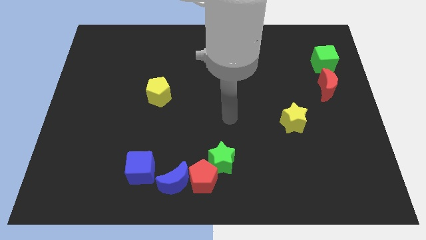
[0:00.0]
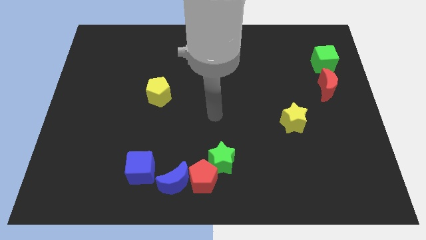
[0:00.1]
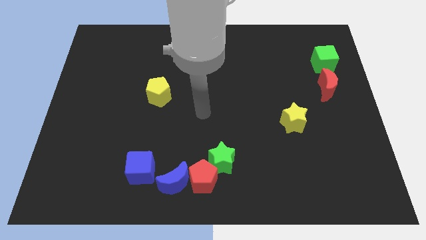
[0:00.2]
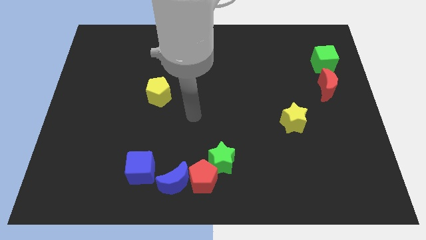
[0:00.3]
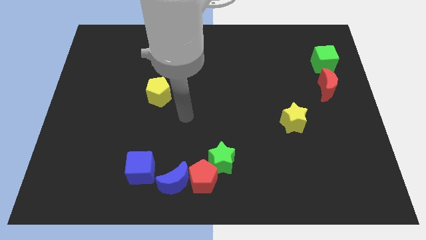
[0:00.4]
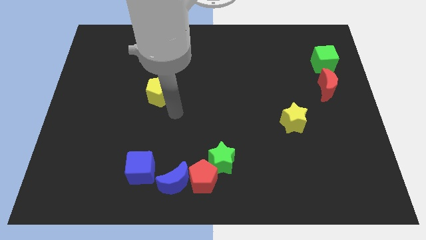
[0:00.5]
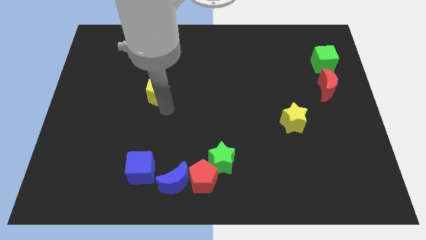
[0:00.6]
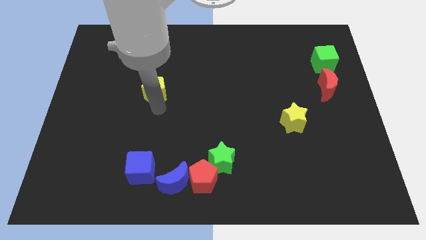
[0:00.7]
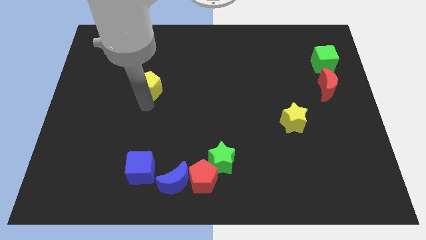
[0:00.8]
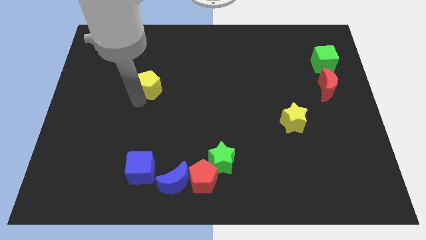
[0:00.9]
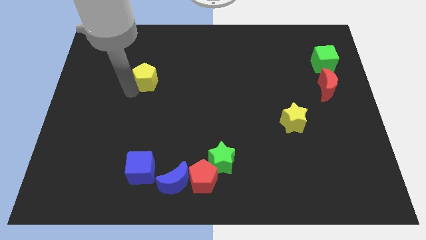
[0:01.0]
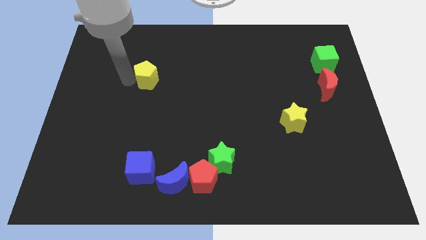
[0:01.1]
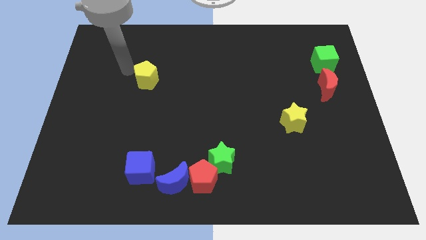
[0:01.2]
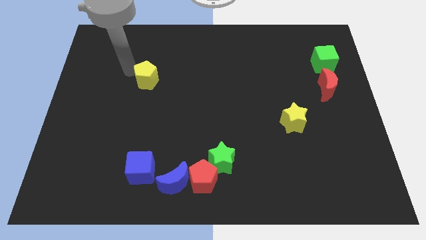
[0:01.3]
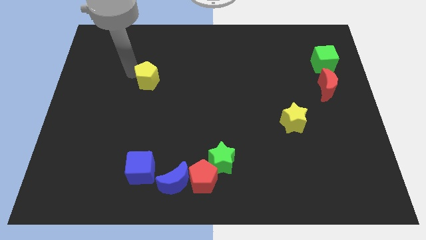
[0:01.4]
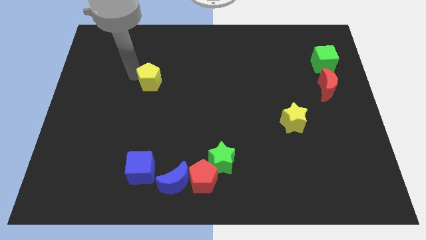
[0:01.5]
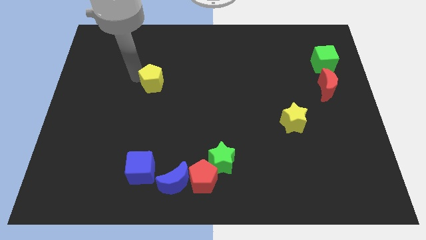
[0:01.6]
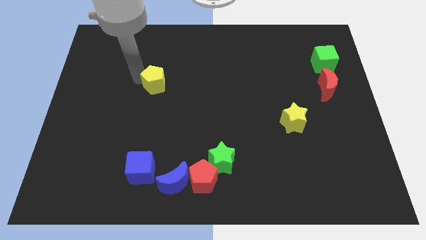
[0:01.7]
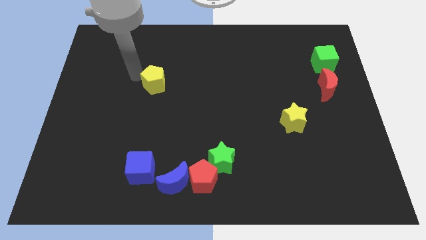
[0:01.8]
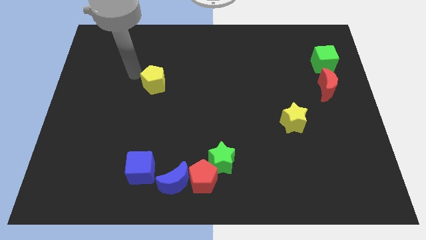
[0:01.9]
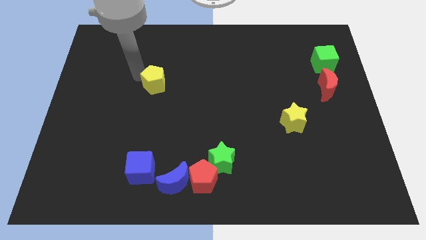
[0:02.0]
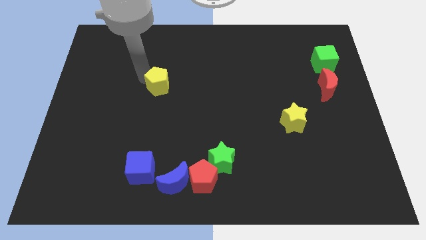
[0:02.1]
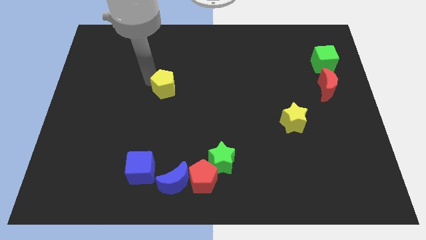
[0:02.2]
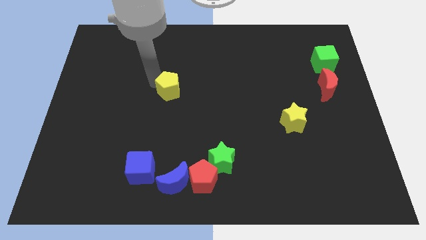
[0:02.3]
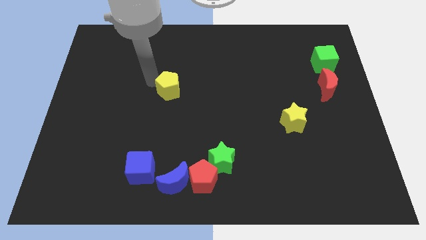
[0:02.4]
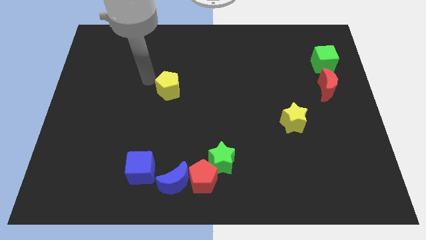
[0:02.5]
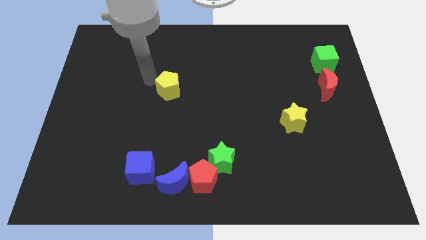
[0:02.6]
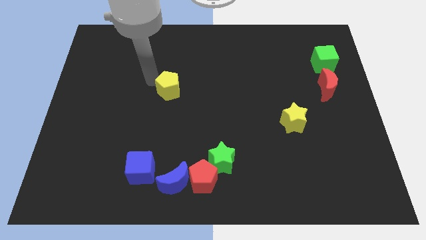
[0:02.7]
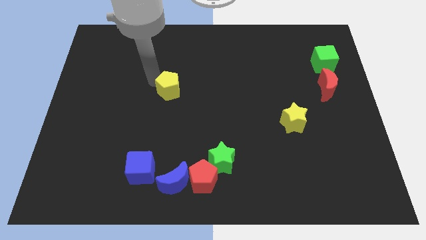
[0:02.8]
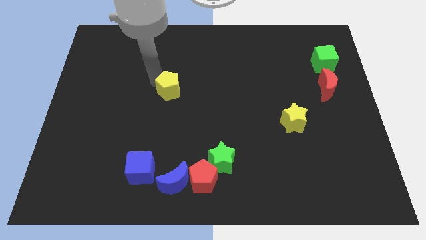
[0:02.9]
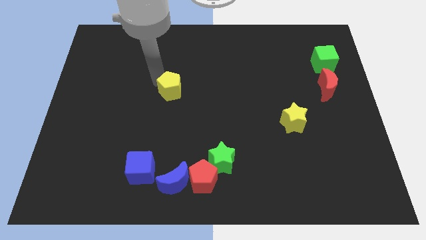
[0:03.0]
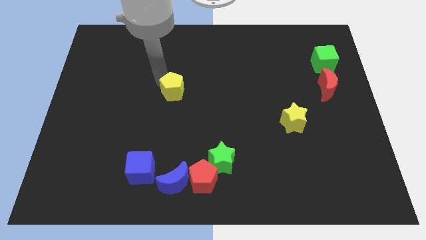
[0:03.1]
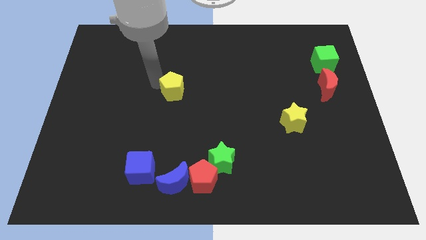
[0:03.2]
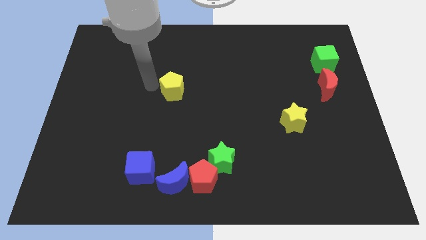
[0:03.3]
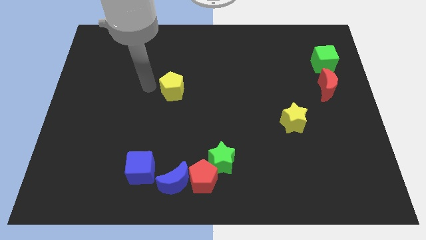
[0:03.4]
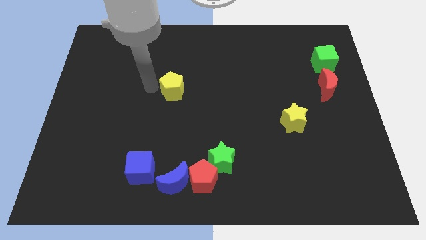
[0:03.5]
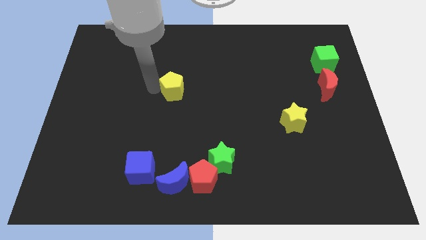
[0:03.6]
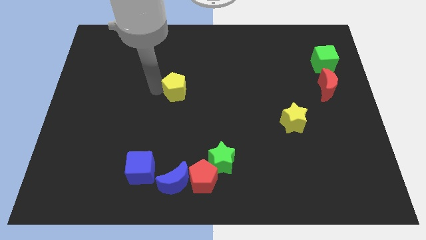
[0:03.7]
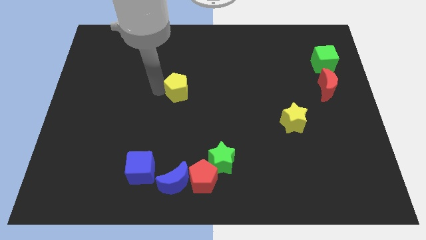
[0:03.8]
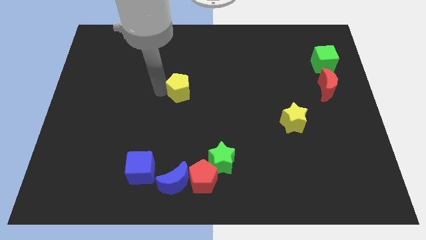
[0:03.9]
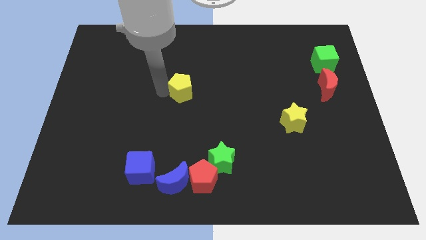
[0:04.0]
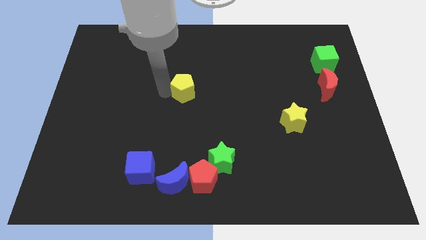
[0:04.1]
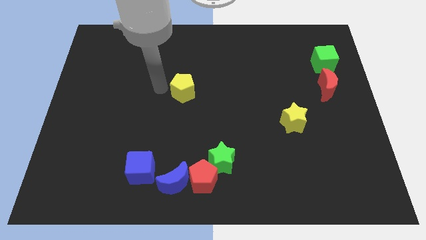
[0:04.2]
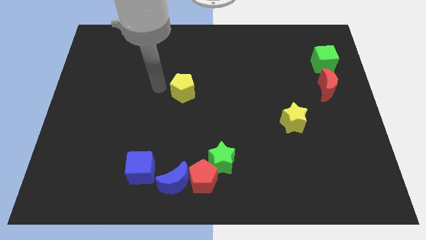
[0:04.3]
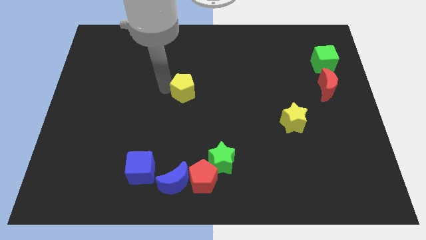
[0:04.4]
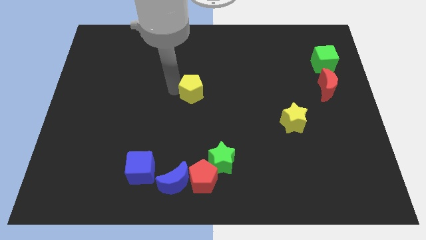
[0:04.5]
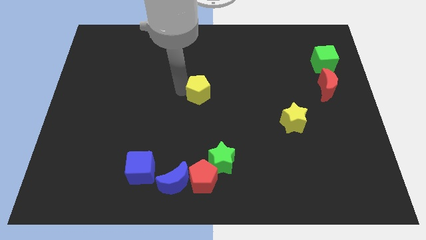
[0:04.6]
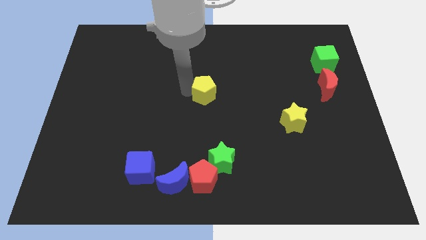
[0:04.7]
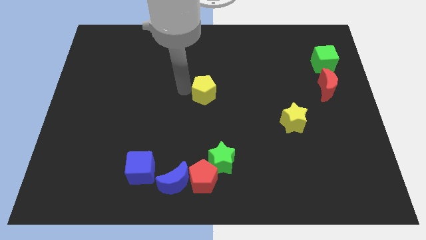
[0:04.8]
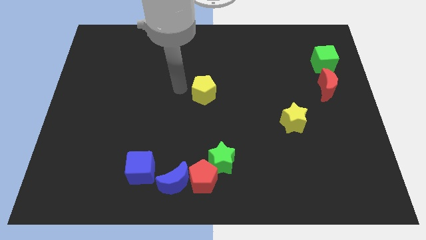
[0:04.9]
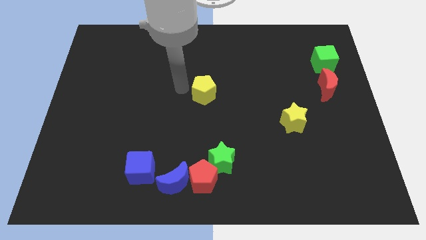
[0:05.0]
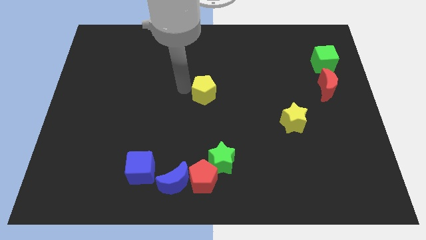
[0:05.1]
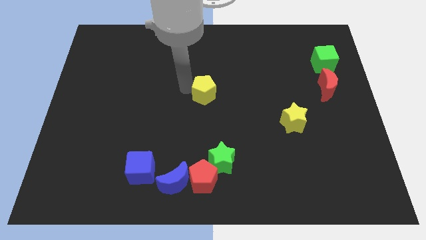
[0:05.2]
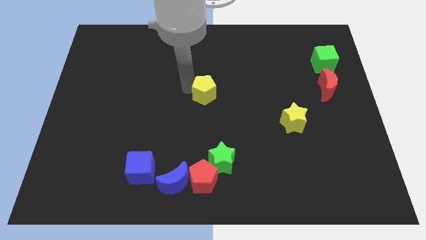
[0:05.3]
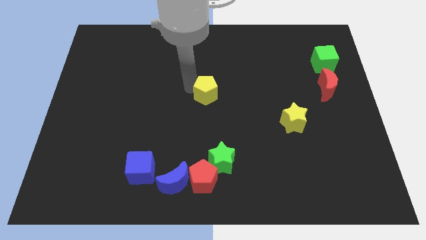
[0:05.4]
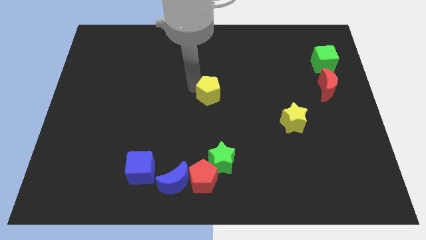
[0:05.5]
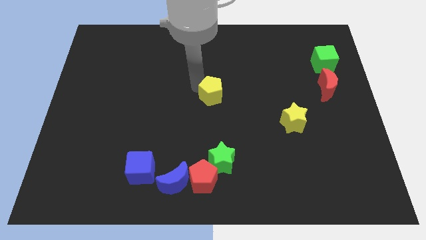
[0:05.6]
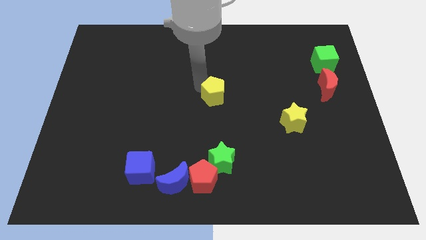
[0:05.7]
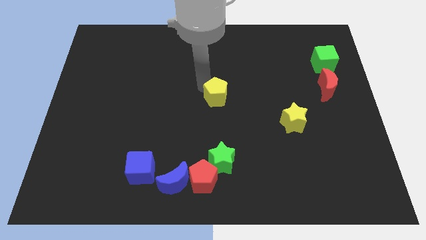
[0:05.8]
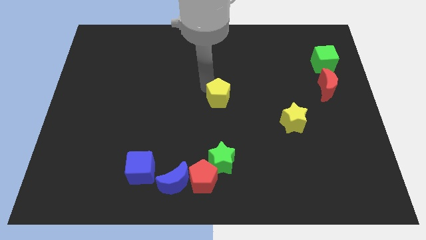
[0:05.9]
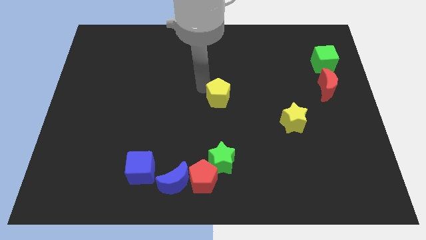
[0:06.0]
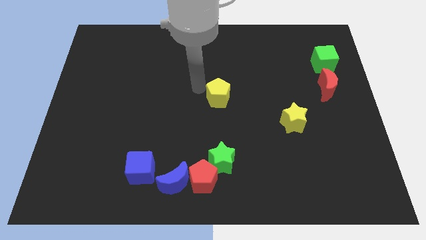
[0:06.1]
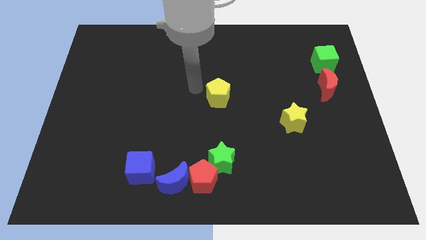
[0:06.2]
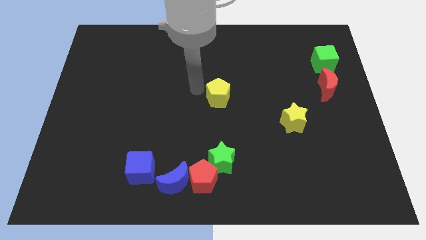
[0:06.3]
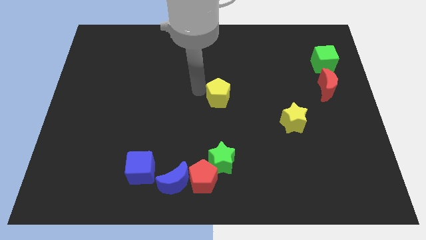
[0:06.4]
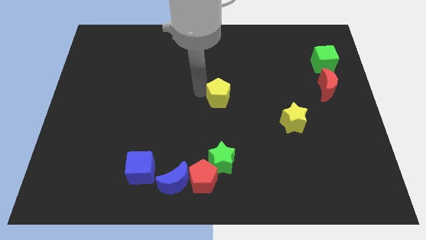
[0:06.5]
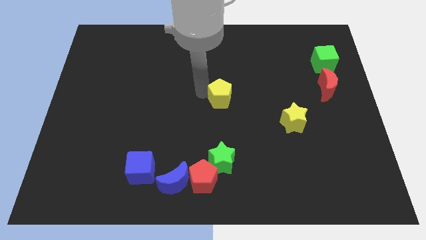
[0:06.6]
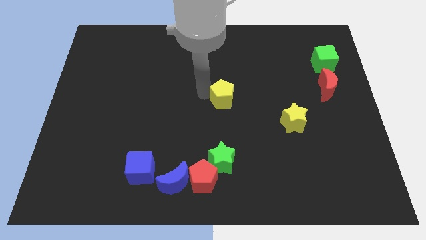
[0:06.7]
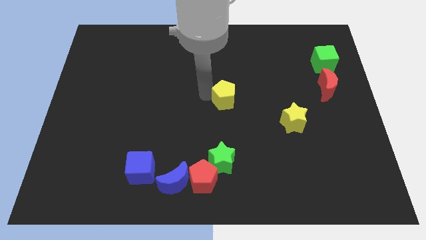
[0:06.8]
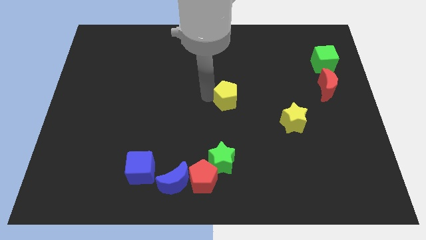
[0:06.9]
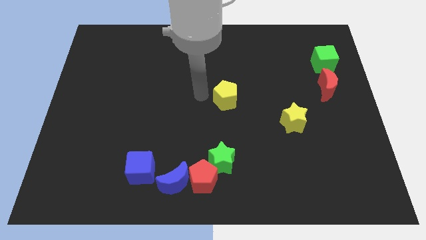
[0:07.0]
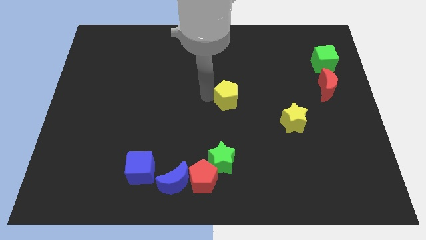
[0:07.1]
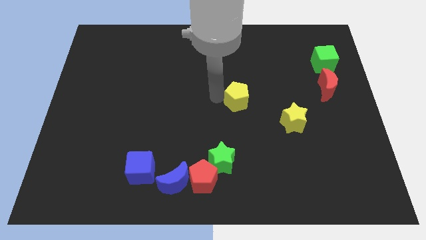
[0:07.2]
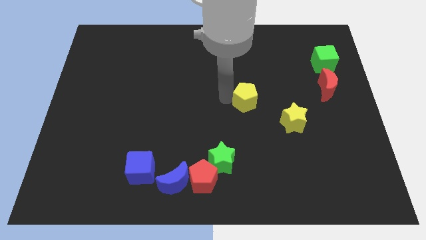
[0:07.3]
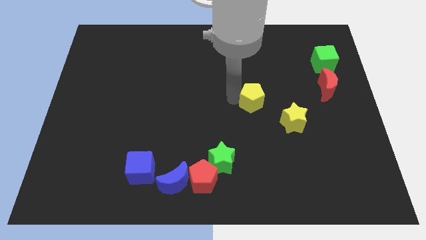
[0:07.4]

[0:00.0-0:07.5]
push the yellow pentagon diagonally up and to the left of the yellow star
